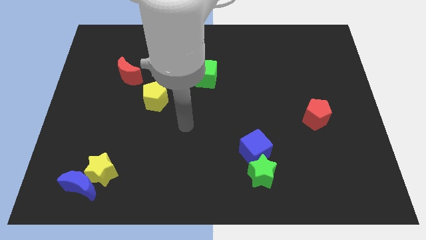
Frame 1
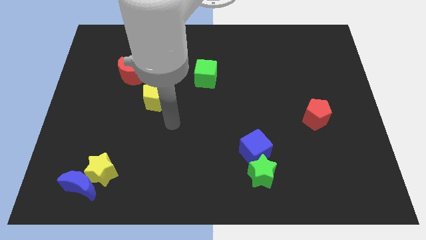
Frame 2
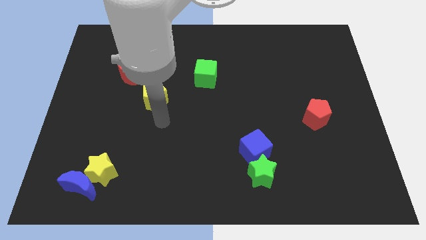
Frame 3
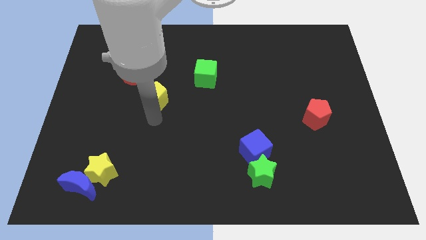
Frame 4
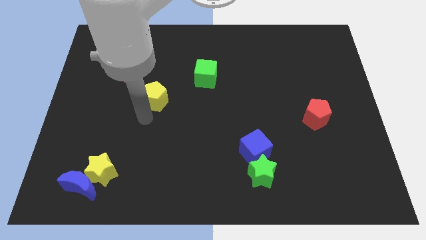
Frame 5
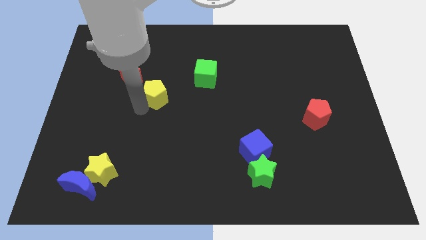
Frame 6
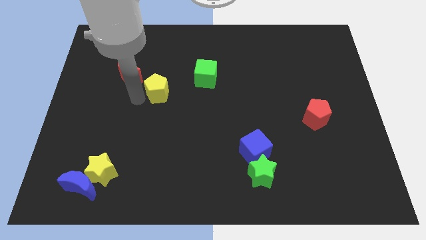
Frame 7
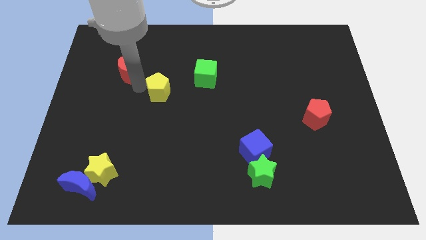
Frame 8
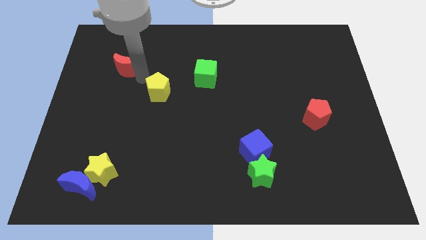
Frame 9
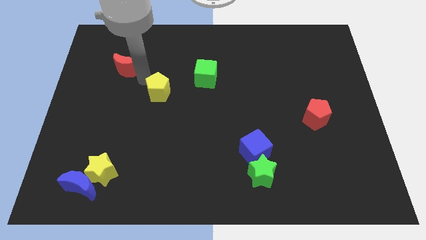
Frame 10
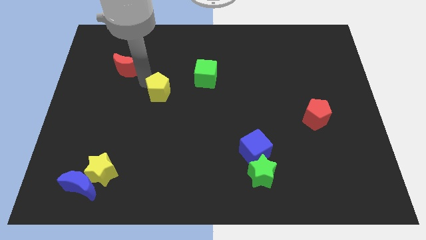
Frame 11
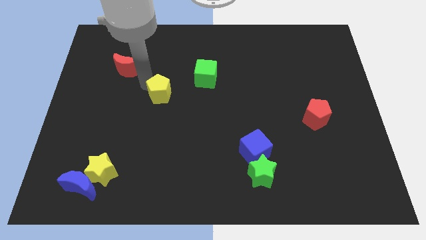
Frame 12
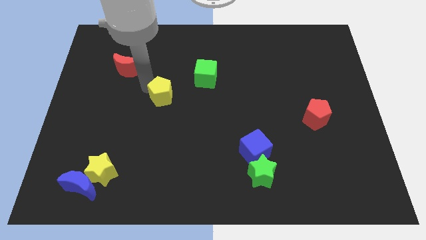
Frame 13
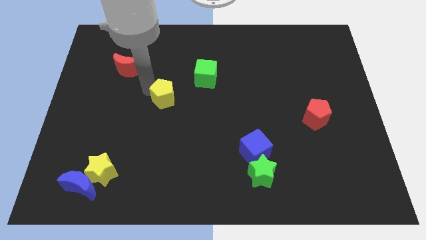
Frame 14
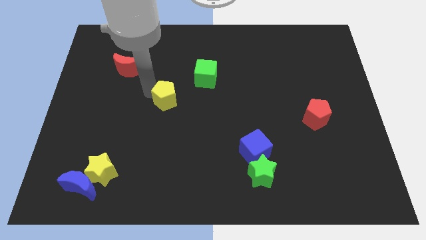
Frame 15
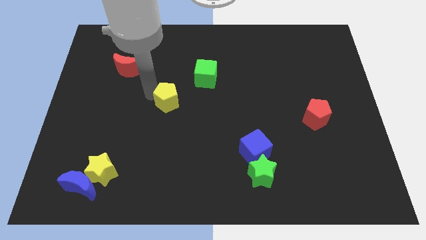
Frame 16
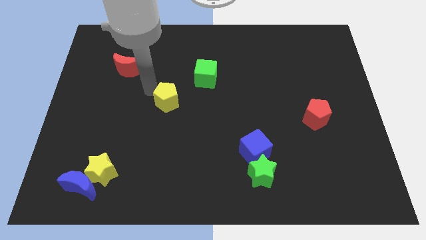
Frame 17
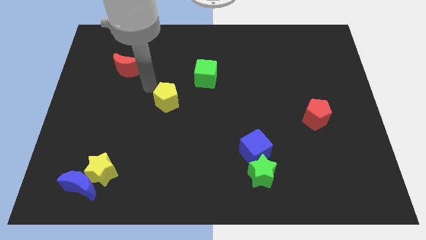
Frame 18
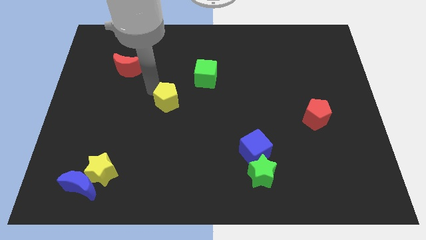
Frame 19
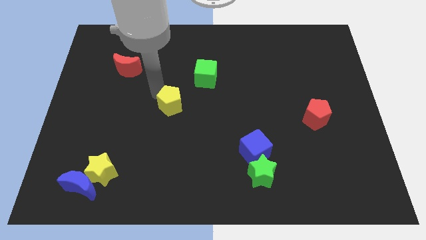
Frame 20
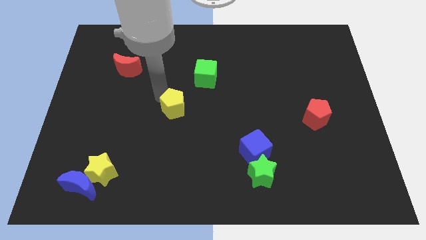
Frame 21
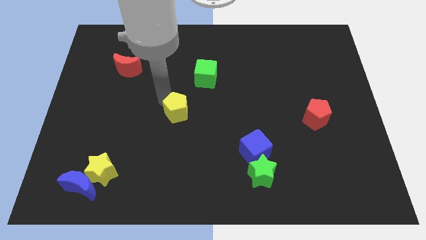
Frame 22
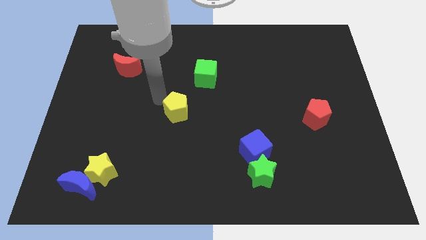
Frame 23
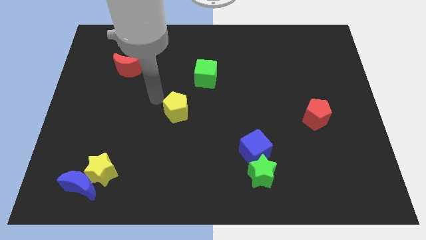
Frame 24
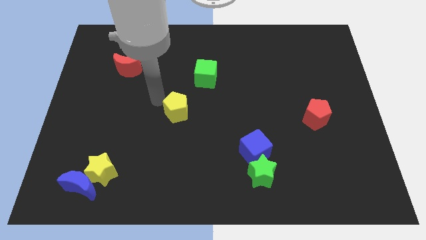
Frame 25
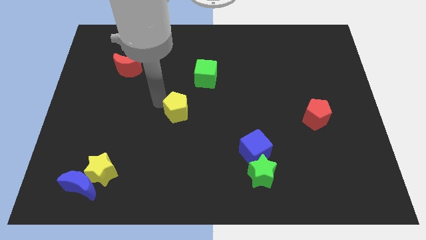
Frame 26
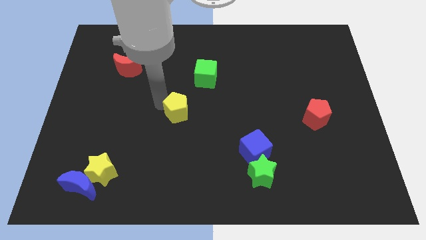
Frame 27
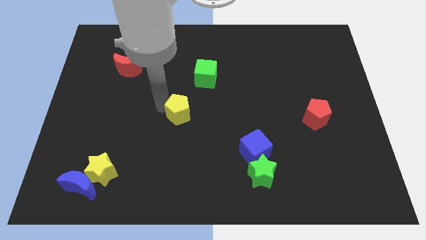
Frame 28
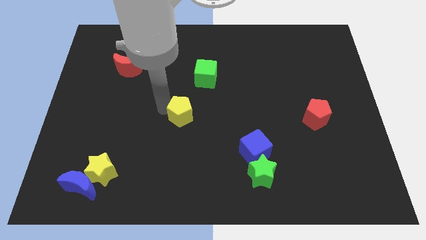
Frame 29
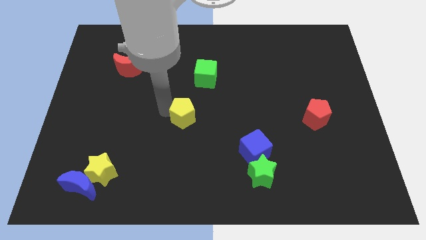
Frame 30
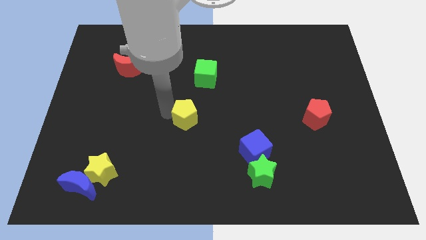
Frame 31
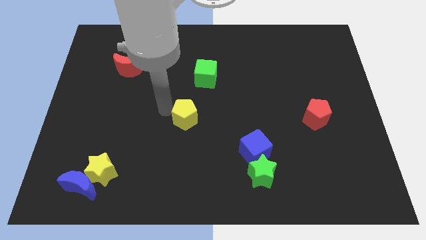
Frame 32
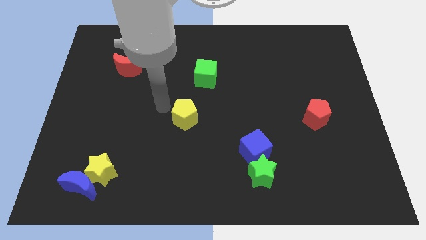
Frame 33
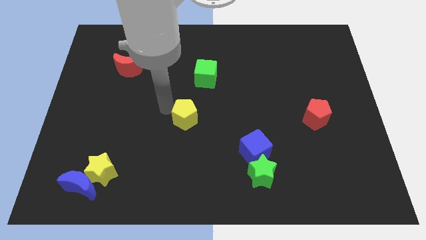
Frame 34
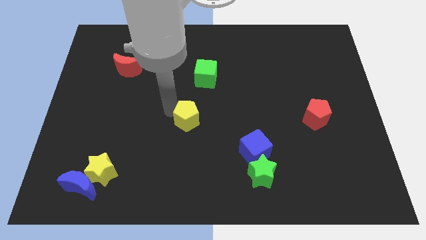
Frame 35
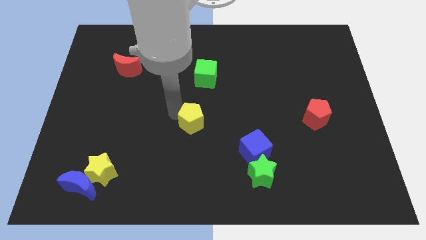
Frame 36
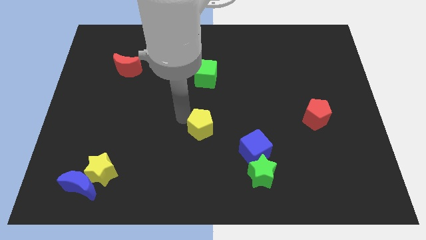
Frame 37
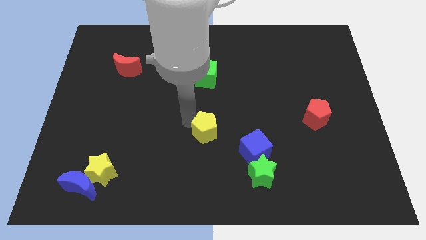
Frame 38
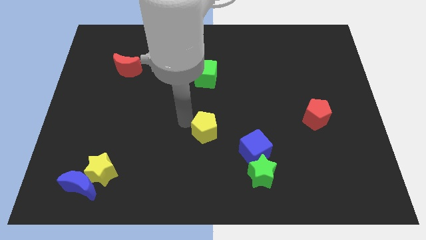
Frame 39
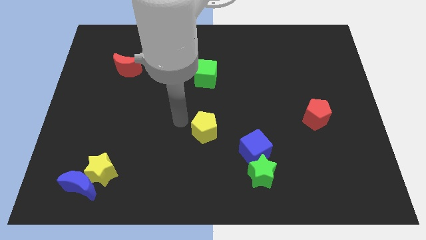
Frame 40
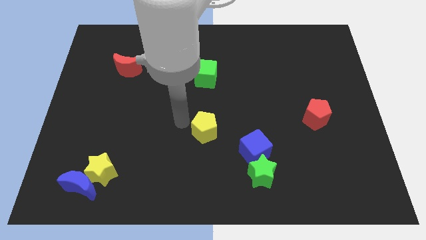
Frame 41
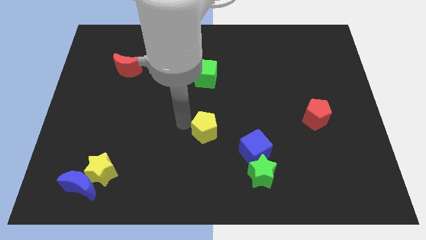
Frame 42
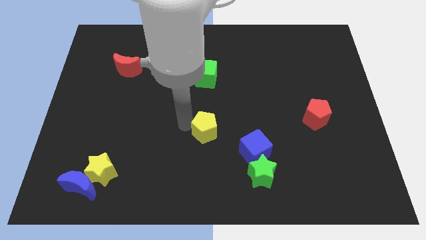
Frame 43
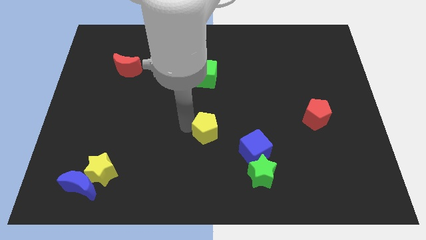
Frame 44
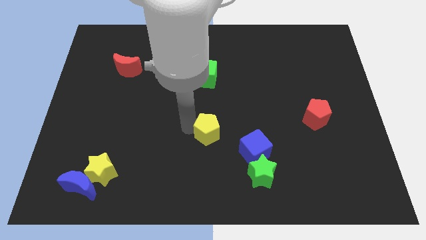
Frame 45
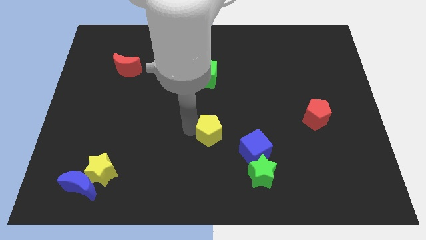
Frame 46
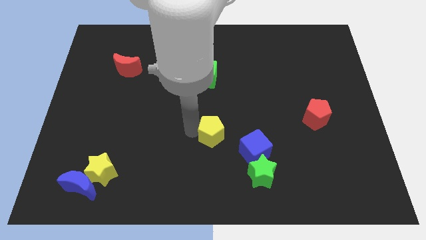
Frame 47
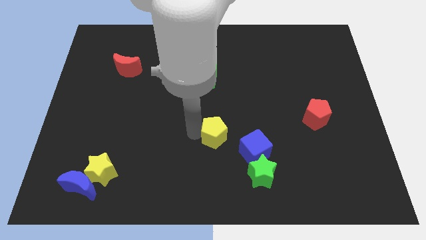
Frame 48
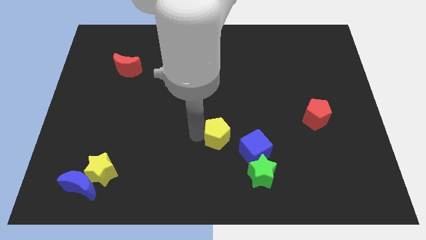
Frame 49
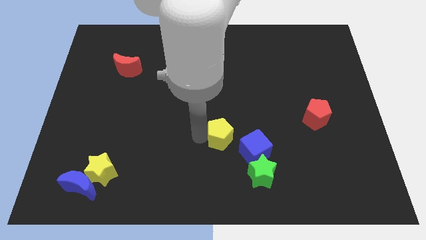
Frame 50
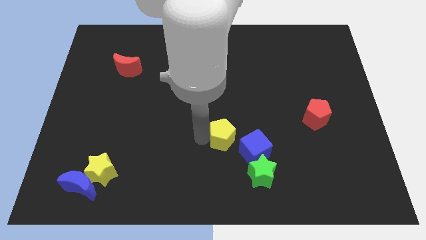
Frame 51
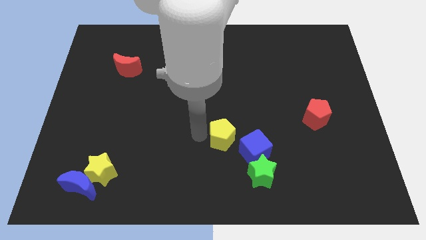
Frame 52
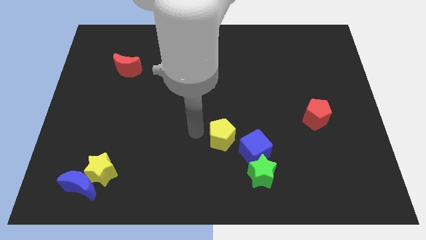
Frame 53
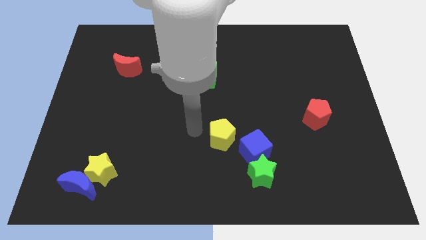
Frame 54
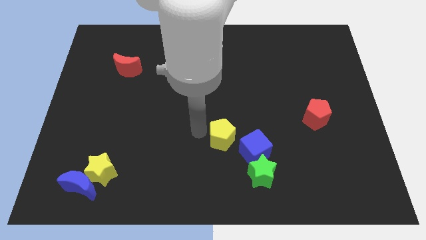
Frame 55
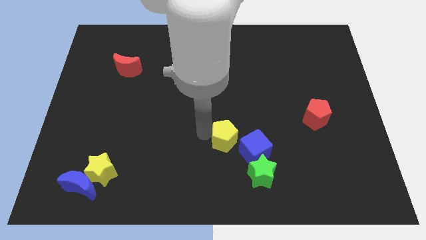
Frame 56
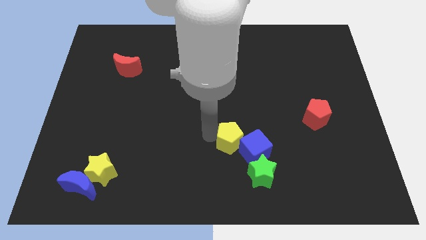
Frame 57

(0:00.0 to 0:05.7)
slide the yellow pentagon next to the blue cube
